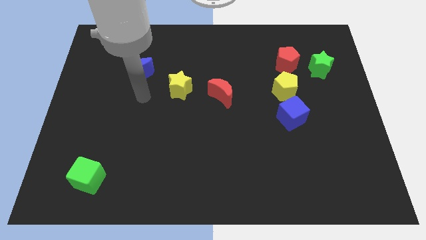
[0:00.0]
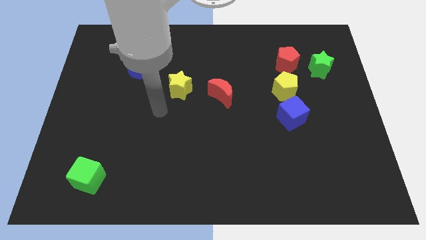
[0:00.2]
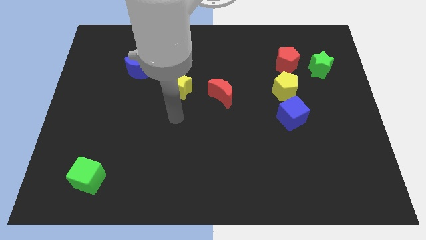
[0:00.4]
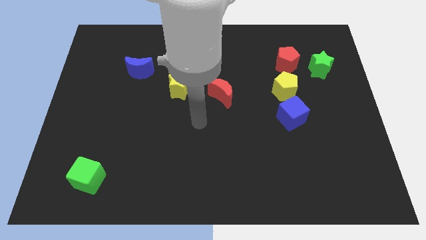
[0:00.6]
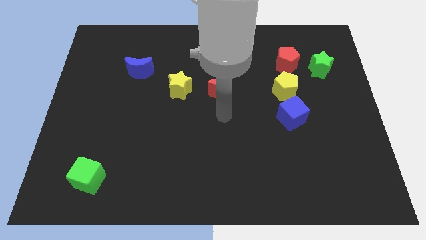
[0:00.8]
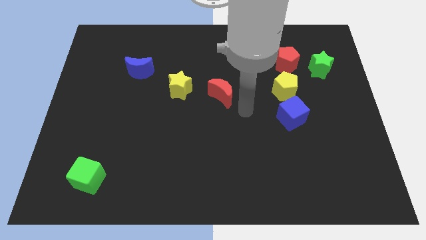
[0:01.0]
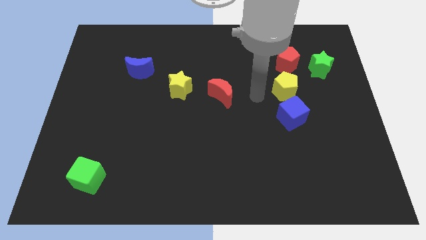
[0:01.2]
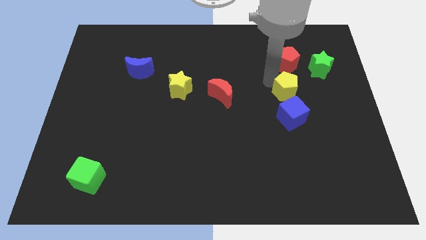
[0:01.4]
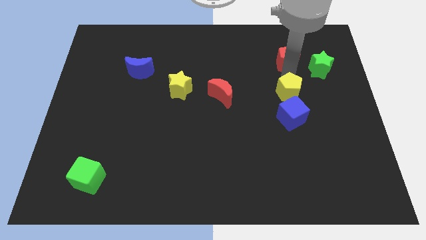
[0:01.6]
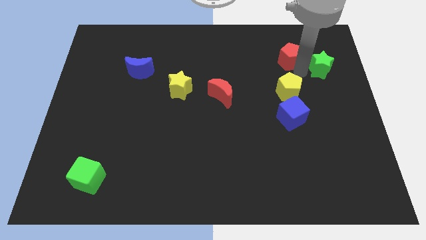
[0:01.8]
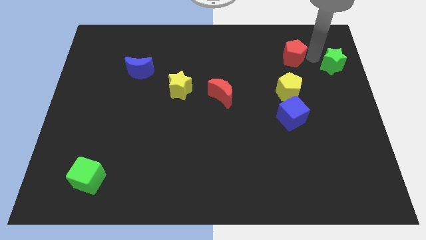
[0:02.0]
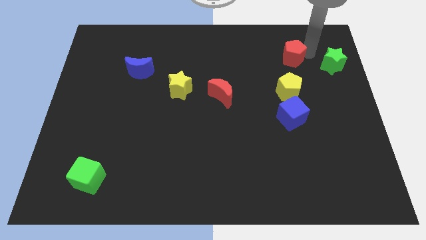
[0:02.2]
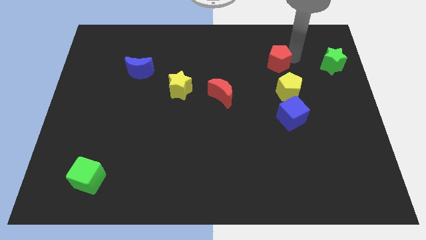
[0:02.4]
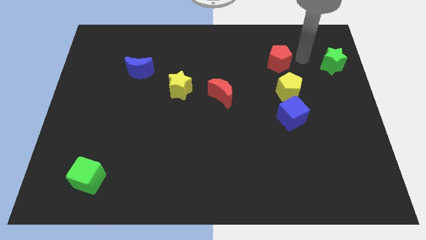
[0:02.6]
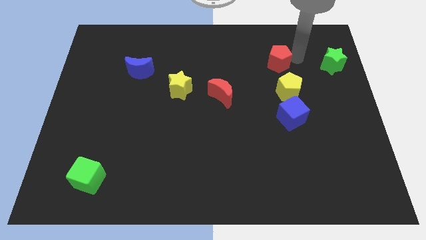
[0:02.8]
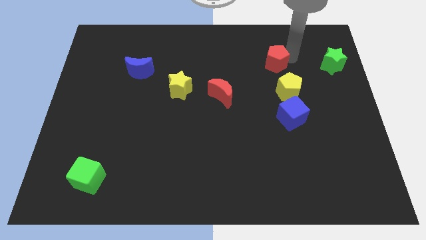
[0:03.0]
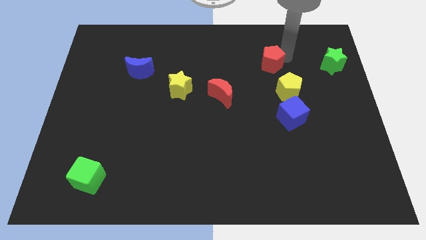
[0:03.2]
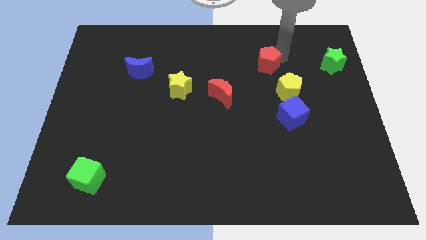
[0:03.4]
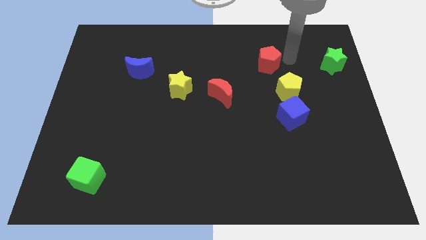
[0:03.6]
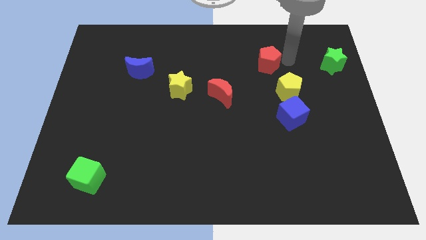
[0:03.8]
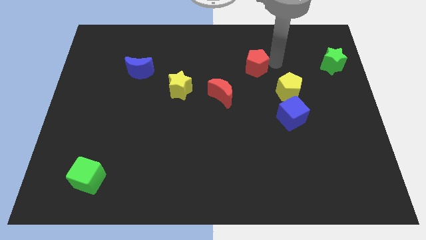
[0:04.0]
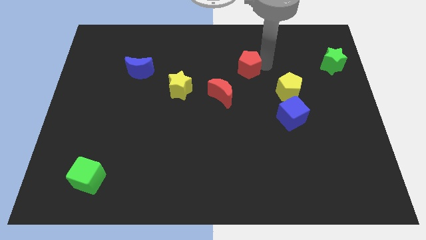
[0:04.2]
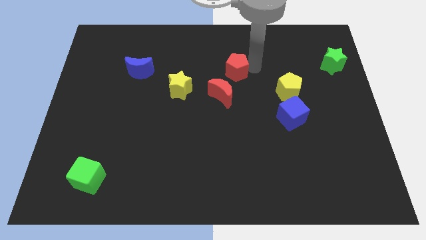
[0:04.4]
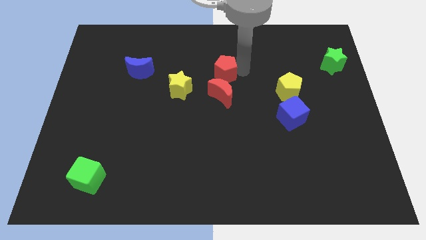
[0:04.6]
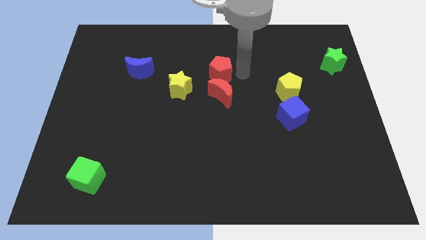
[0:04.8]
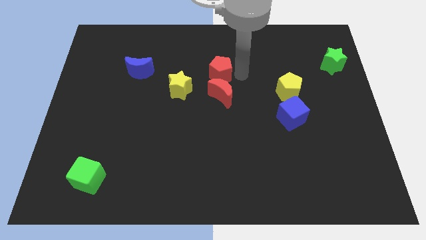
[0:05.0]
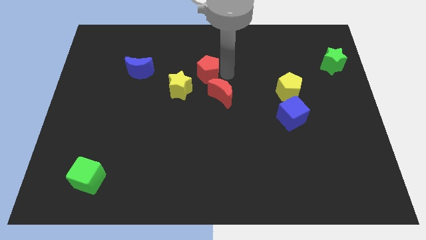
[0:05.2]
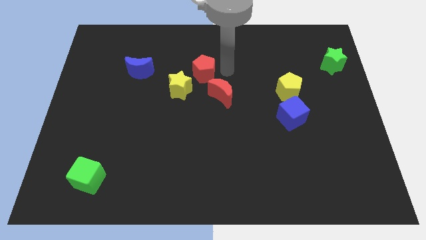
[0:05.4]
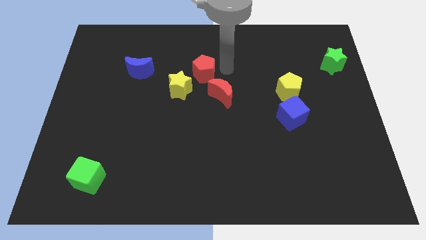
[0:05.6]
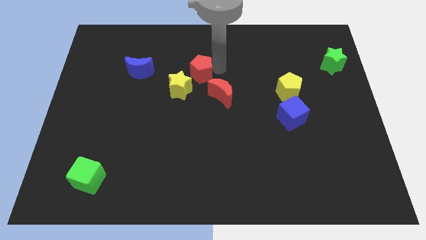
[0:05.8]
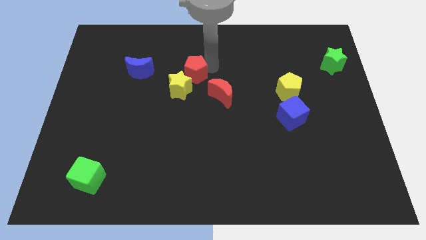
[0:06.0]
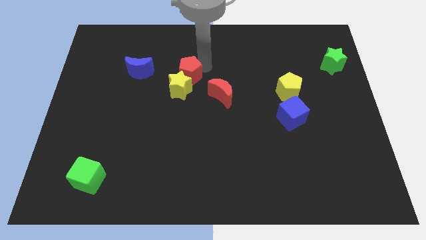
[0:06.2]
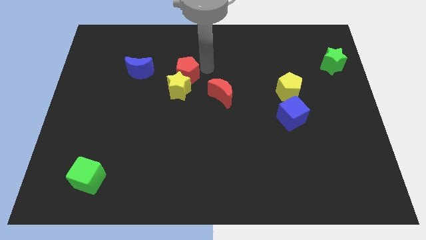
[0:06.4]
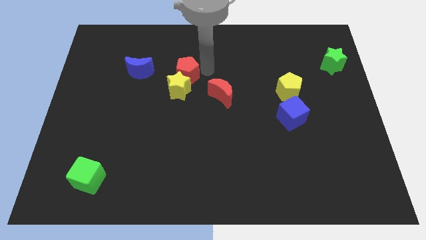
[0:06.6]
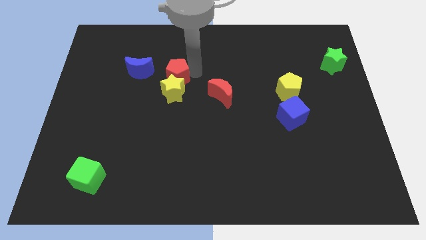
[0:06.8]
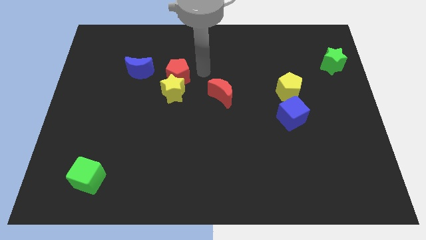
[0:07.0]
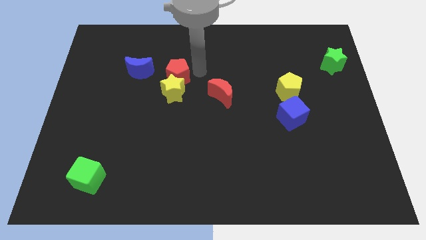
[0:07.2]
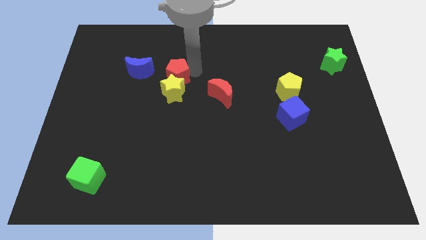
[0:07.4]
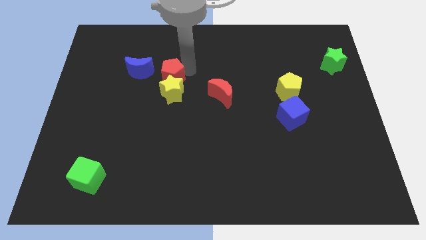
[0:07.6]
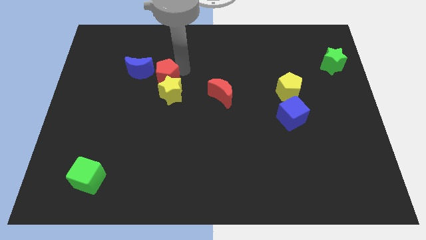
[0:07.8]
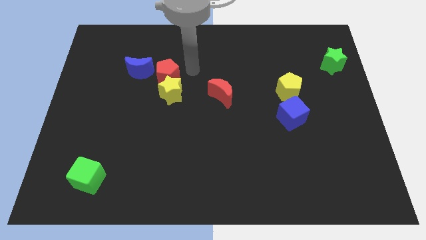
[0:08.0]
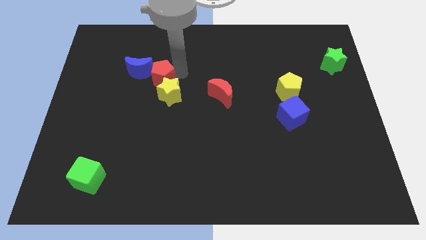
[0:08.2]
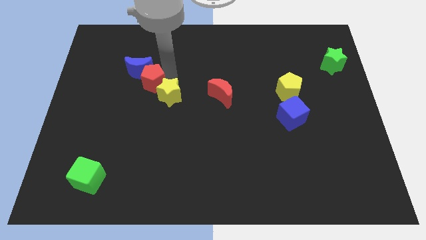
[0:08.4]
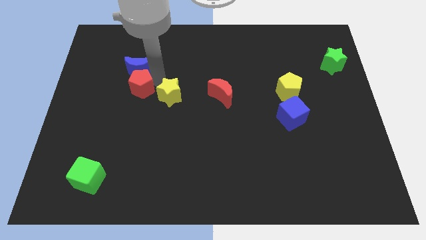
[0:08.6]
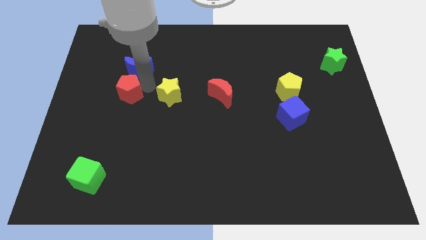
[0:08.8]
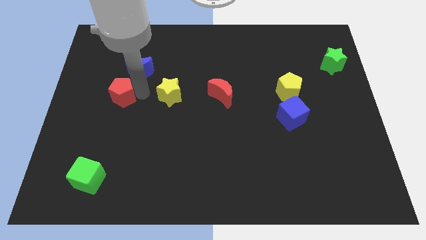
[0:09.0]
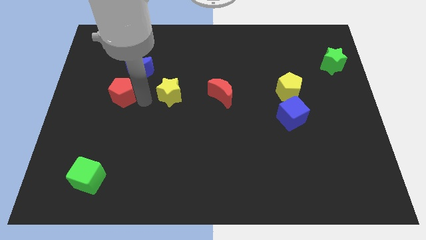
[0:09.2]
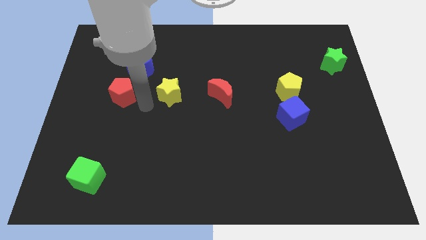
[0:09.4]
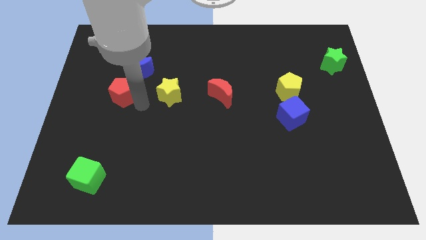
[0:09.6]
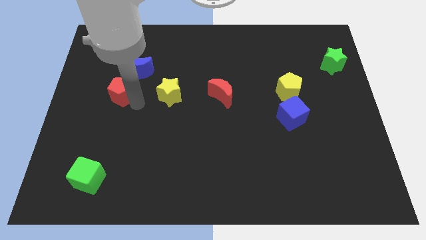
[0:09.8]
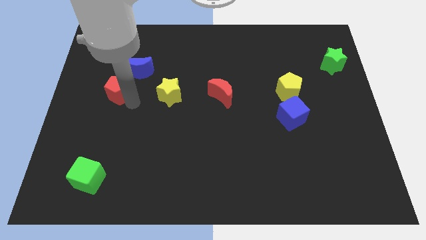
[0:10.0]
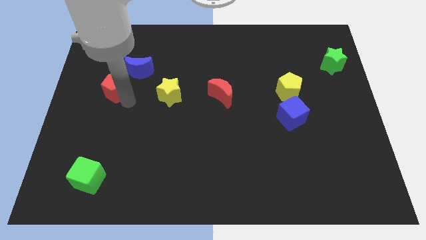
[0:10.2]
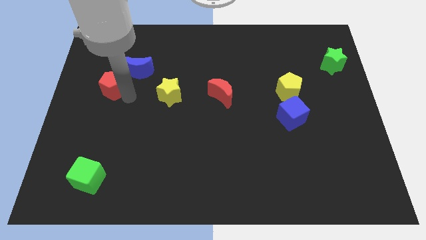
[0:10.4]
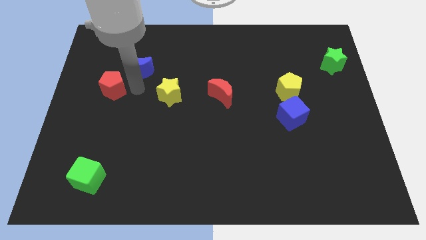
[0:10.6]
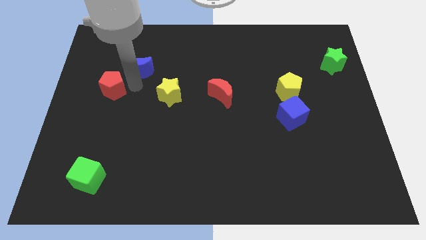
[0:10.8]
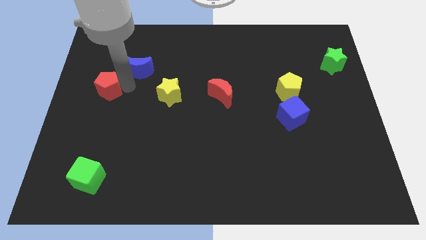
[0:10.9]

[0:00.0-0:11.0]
push the red pentagon to the center left

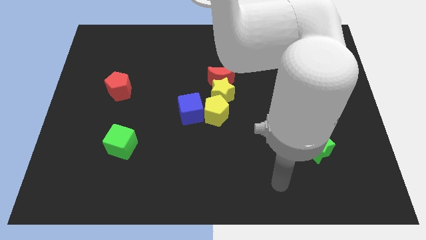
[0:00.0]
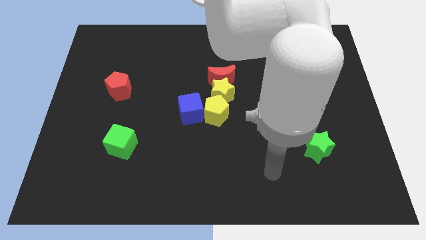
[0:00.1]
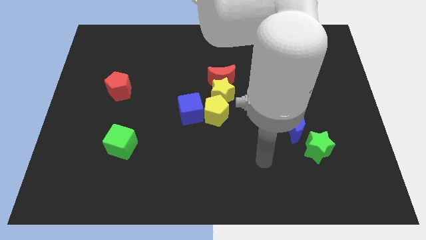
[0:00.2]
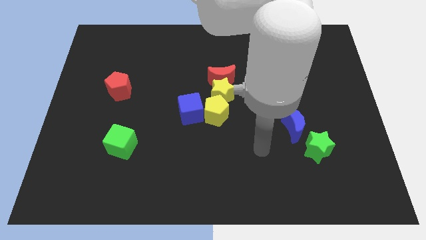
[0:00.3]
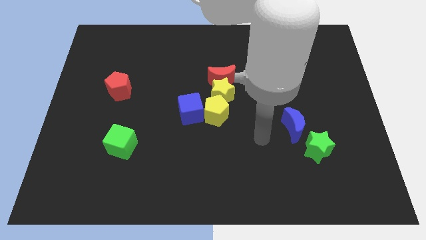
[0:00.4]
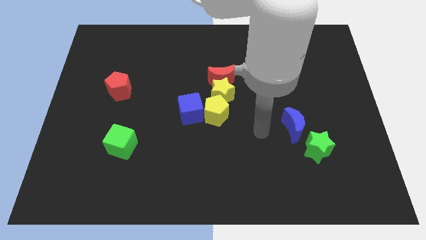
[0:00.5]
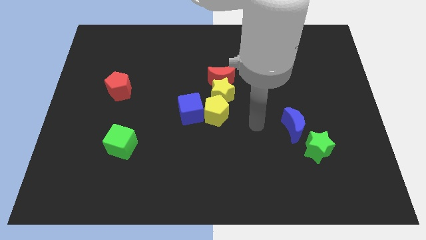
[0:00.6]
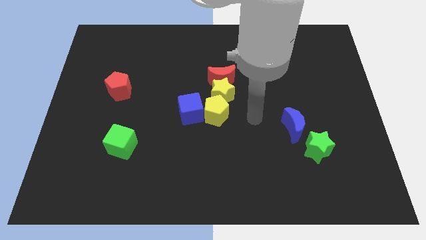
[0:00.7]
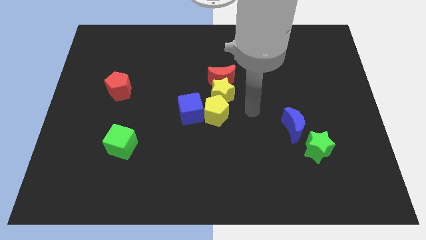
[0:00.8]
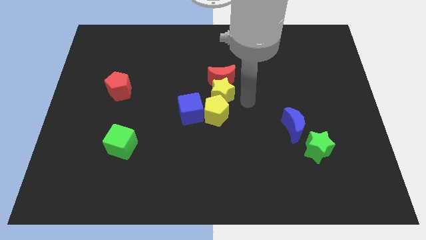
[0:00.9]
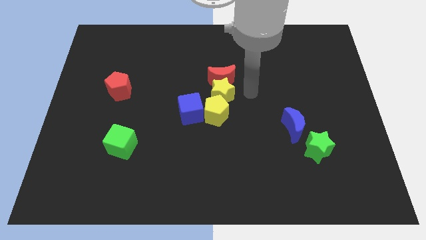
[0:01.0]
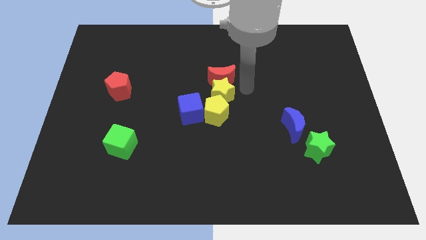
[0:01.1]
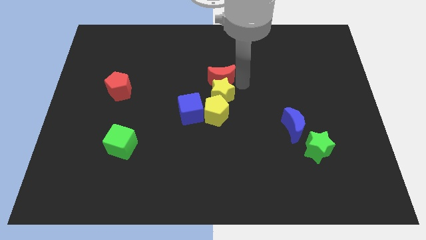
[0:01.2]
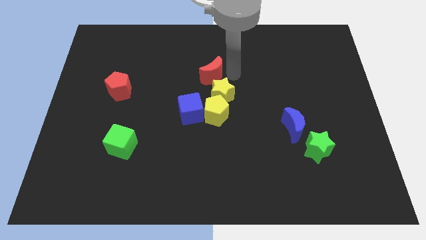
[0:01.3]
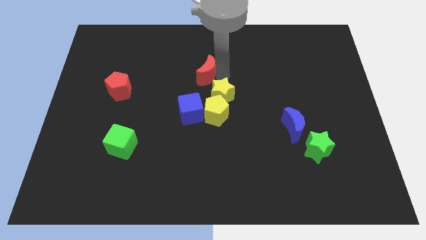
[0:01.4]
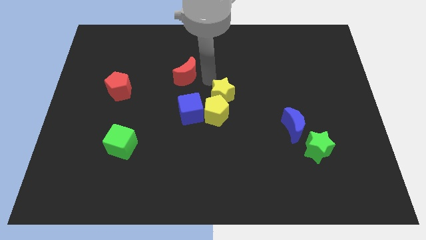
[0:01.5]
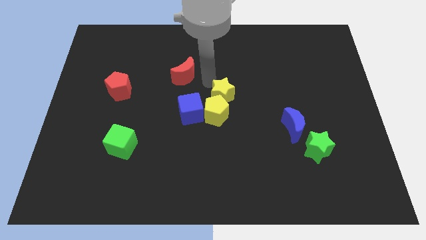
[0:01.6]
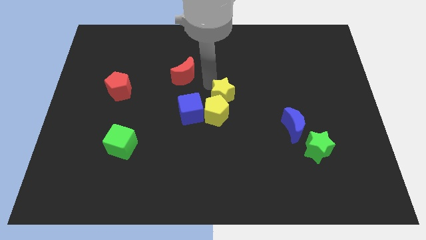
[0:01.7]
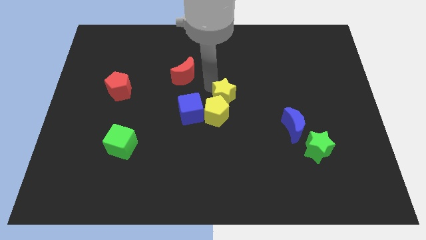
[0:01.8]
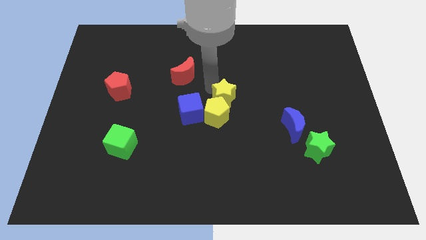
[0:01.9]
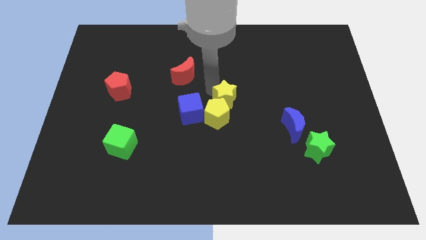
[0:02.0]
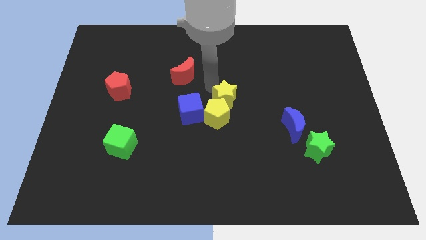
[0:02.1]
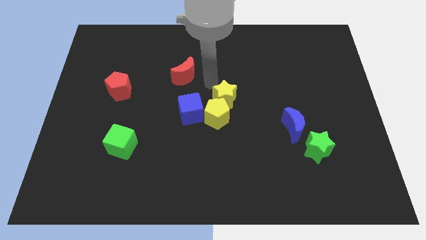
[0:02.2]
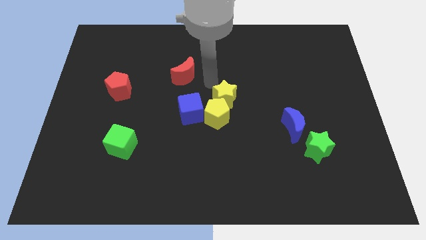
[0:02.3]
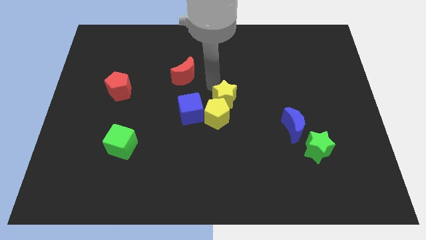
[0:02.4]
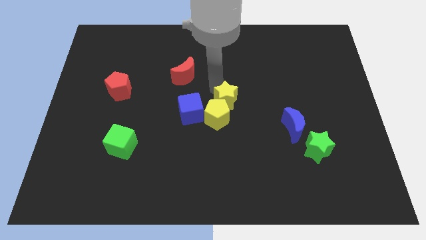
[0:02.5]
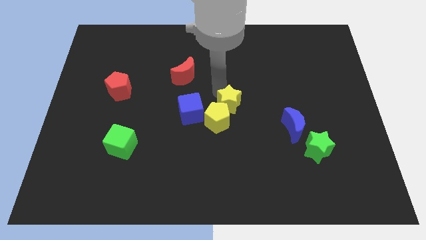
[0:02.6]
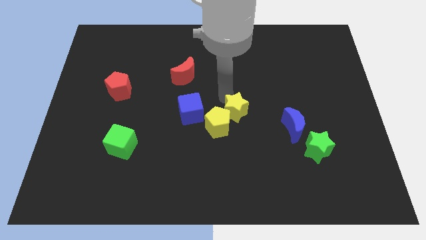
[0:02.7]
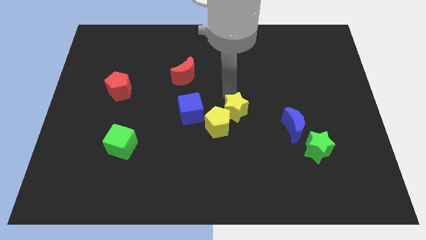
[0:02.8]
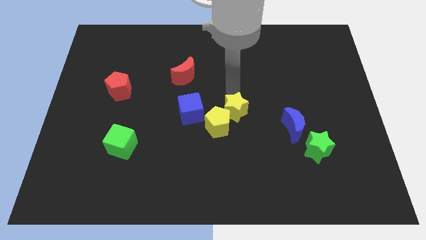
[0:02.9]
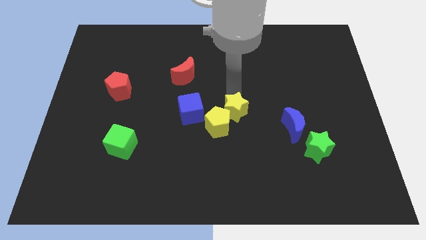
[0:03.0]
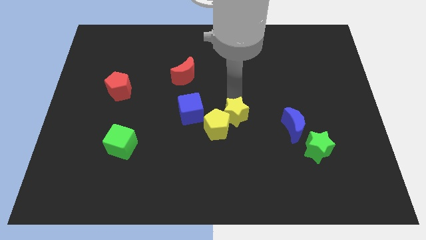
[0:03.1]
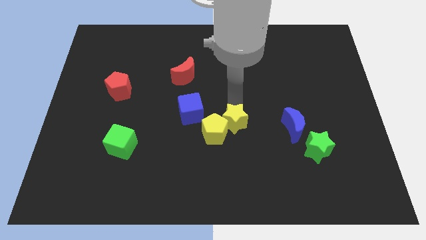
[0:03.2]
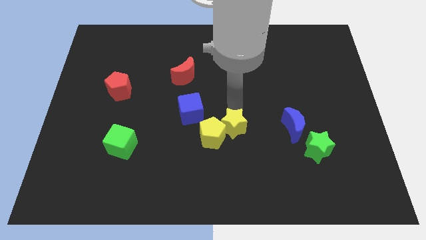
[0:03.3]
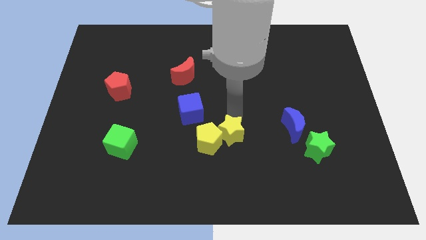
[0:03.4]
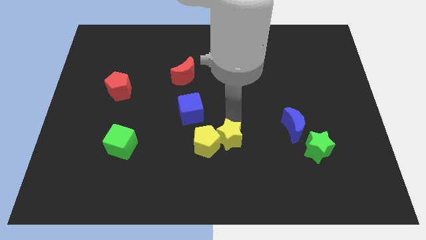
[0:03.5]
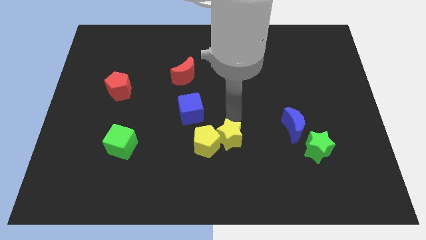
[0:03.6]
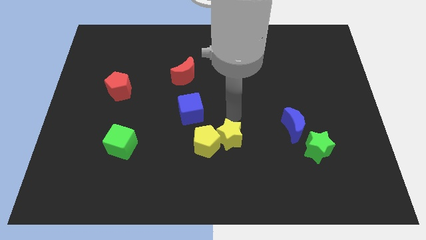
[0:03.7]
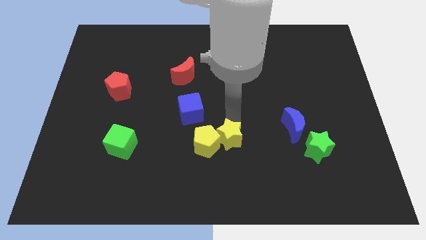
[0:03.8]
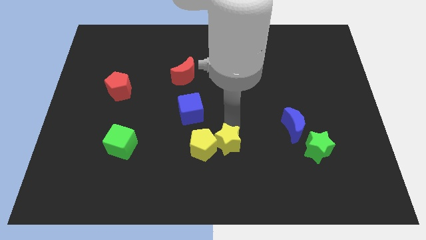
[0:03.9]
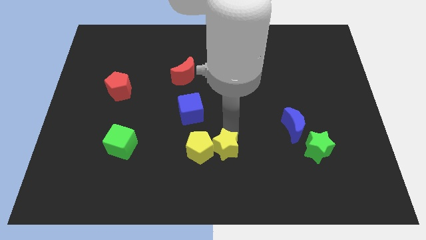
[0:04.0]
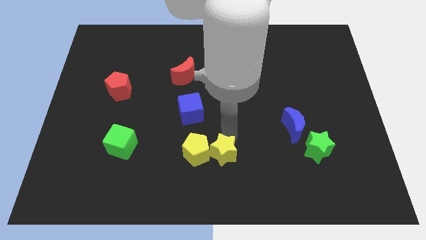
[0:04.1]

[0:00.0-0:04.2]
push the yellow star to the bottom side
